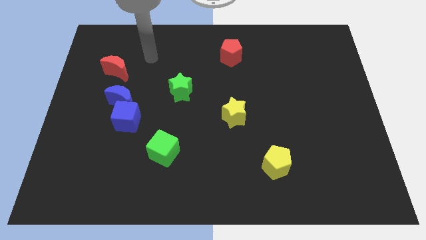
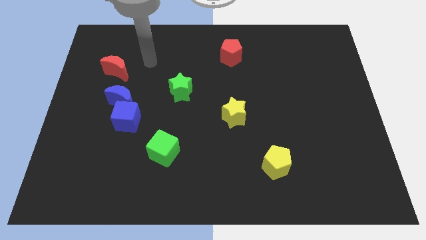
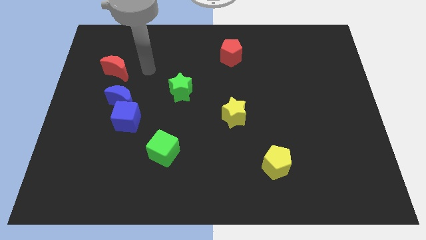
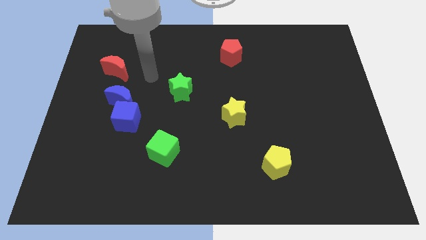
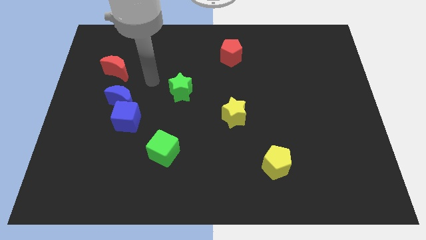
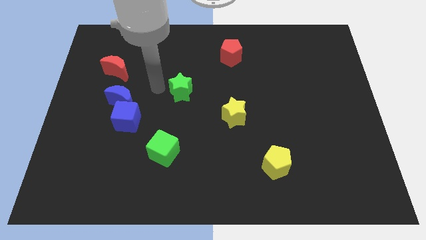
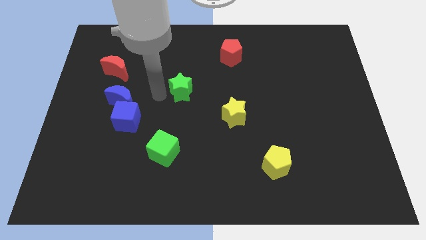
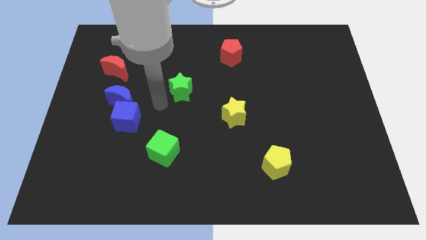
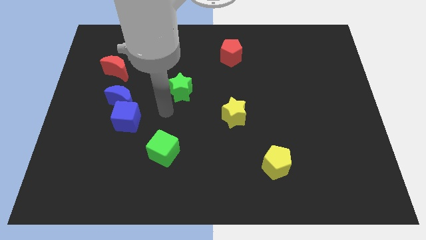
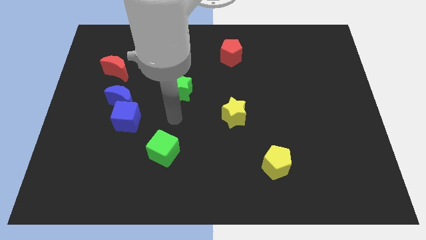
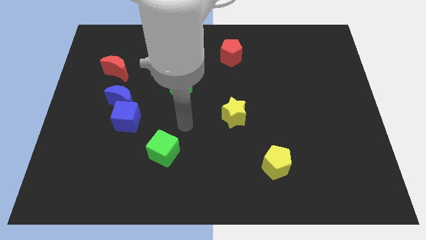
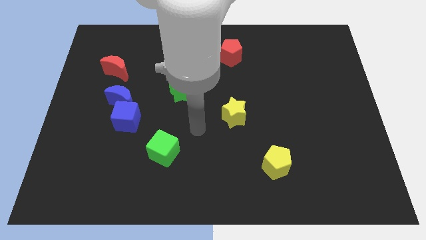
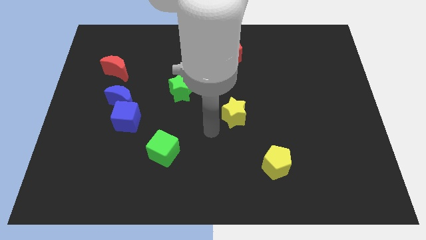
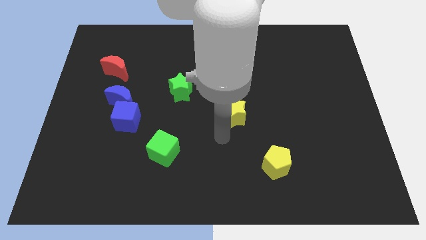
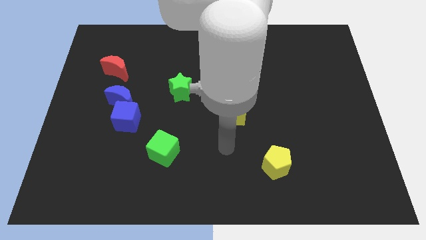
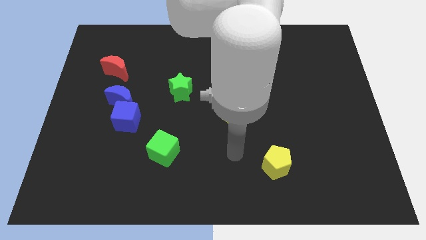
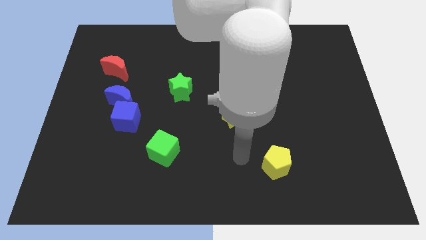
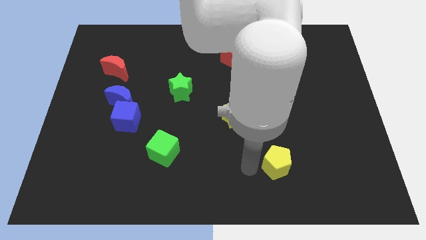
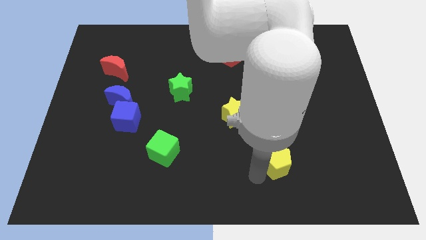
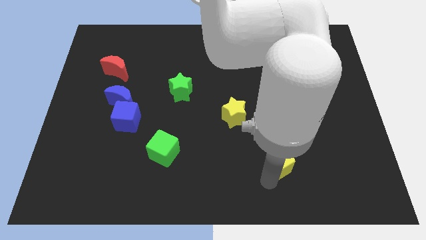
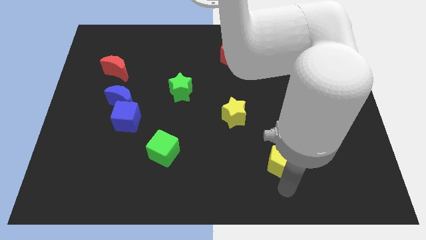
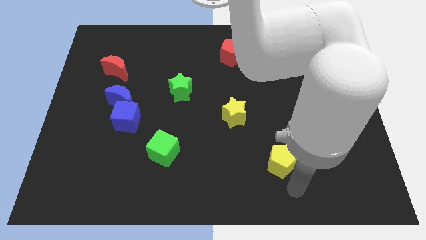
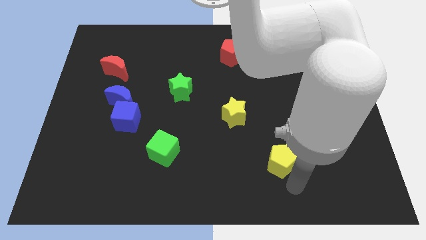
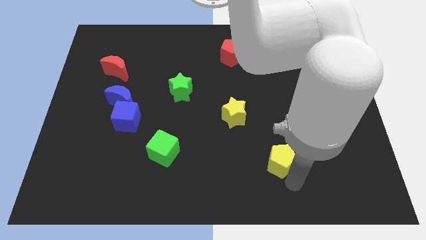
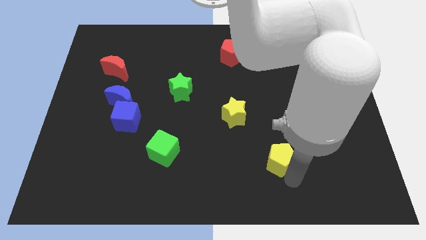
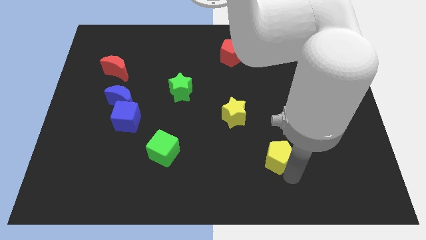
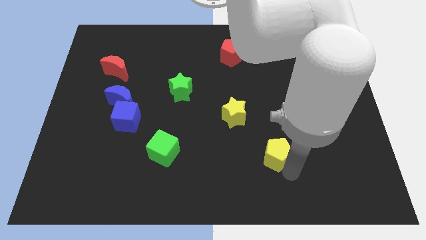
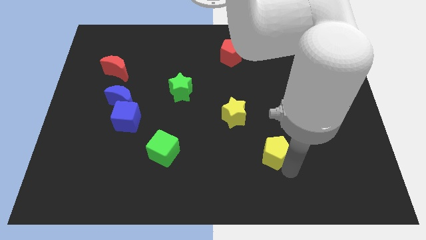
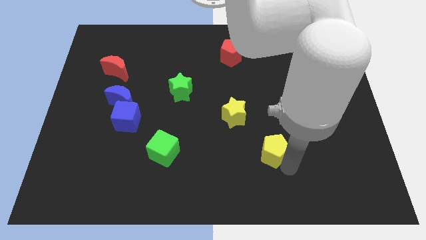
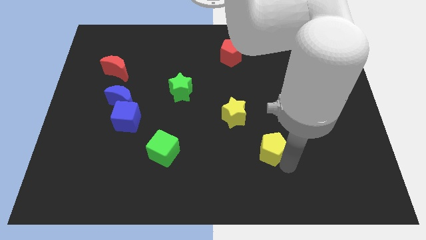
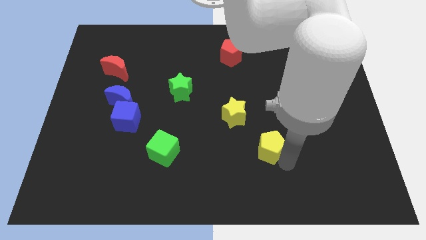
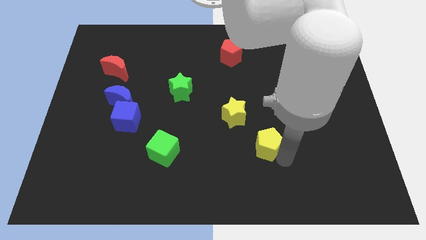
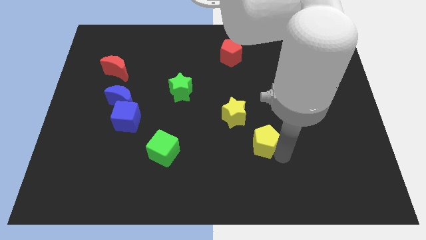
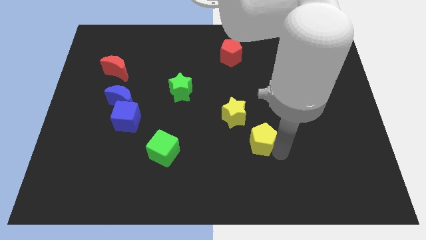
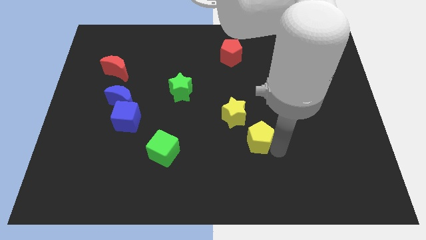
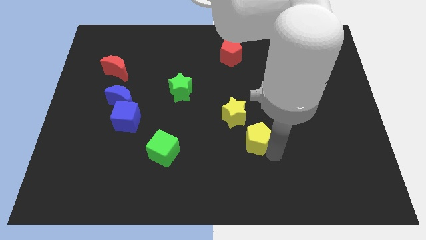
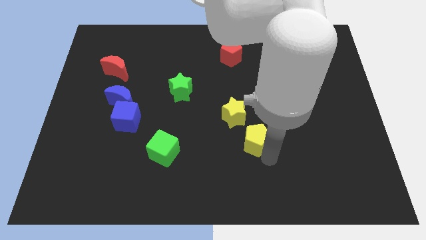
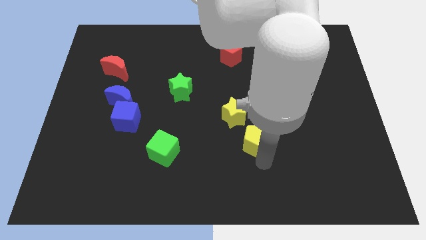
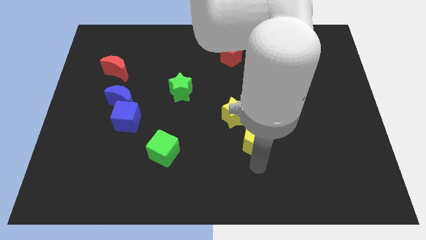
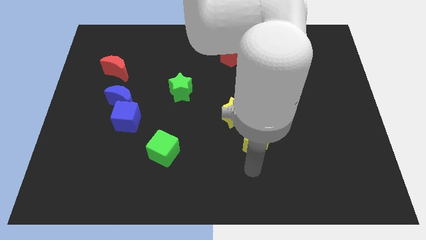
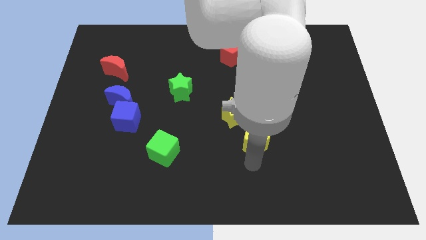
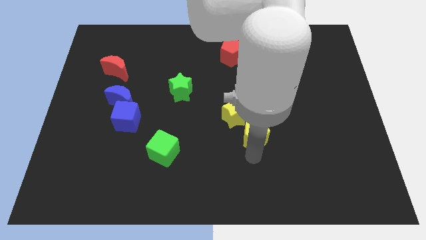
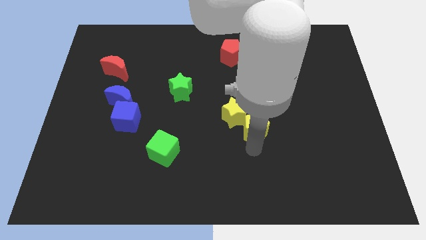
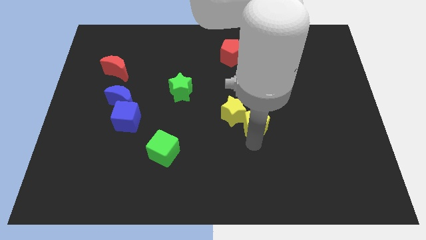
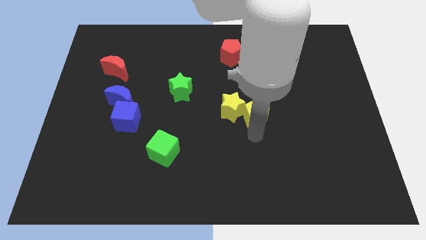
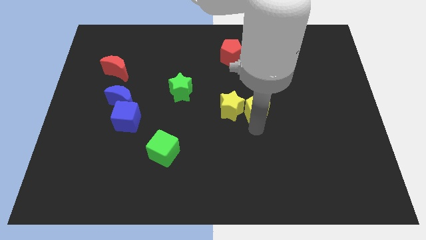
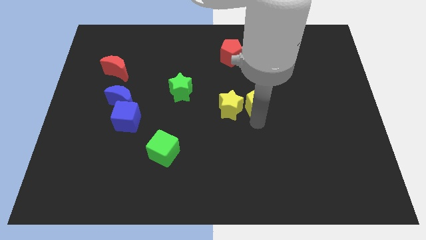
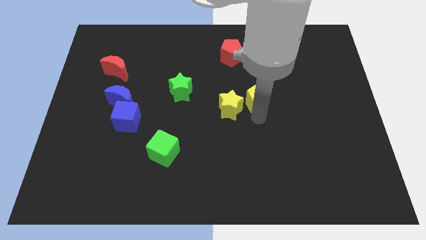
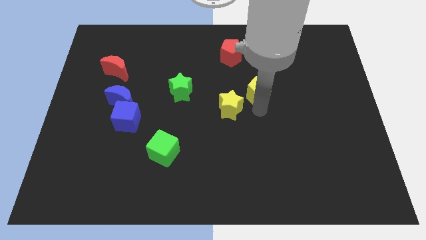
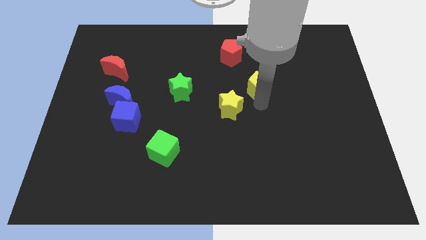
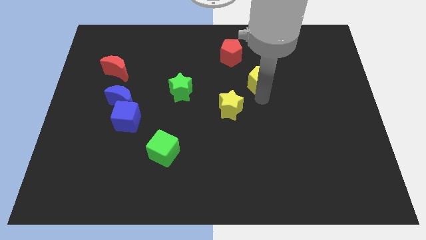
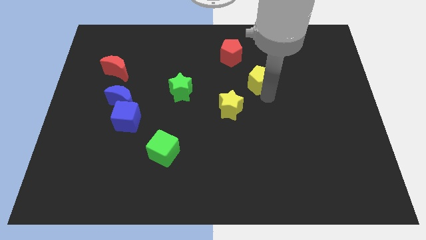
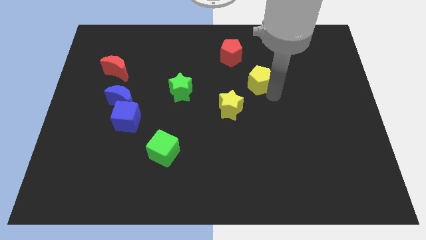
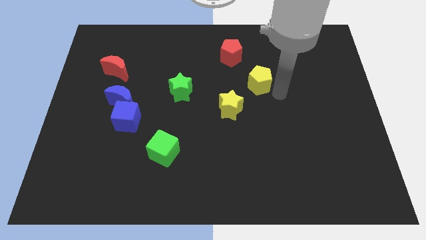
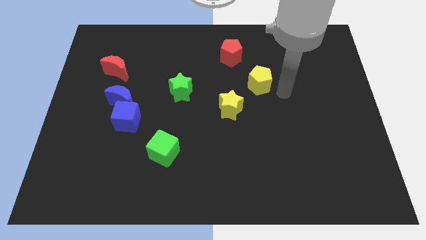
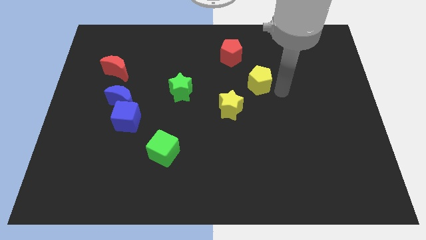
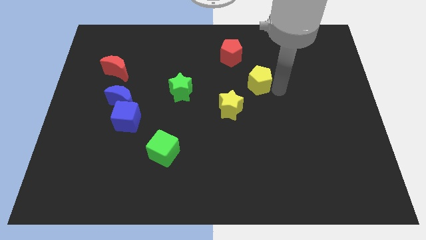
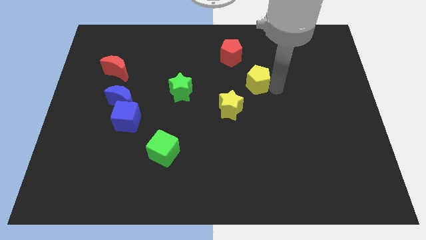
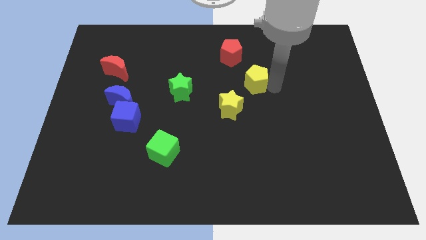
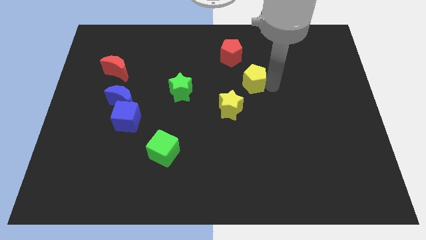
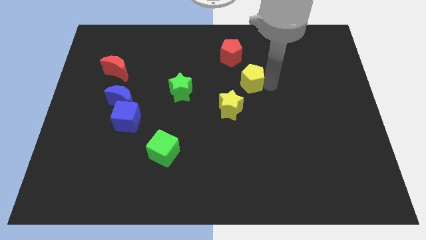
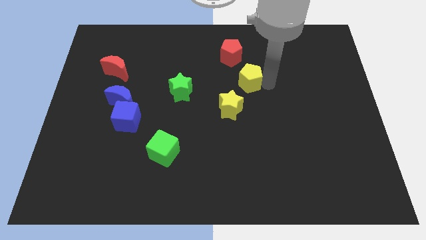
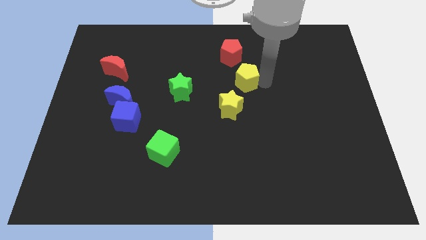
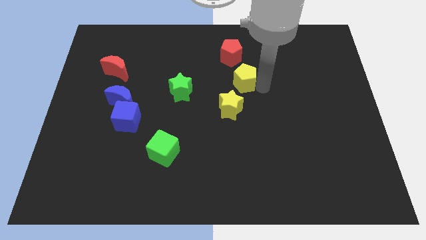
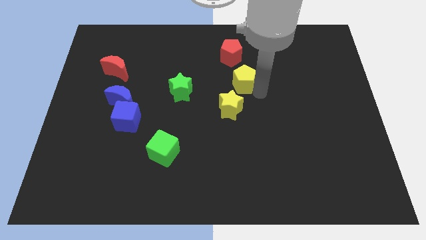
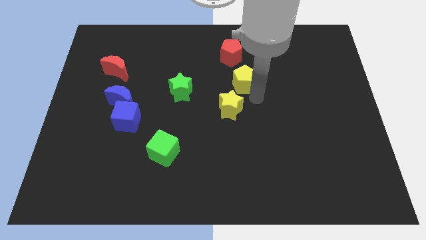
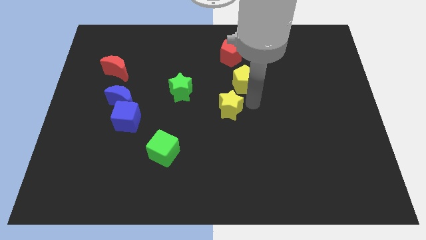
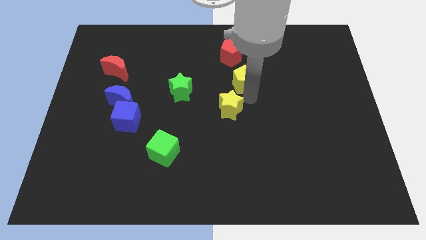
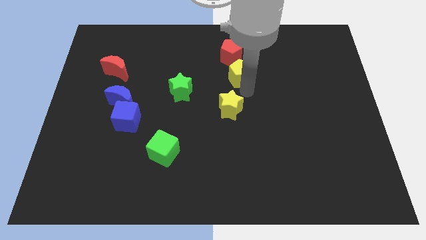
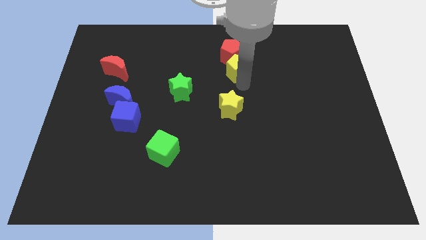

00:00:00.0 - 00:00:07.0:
push the yellow pentagon close to the red pentagon
